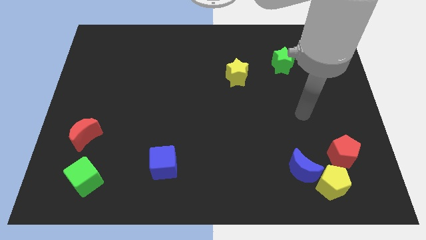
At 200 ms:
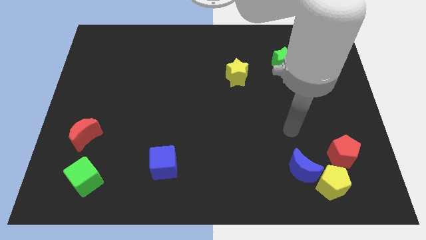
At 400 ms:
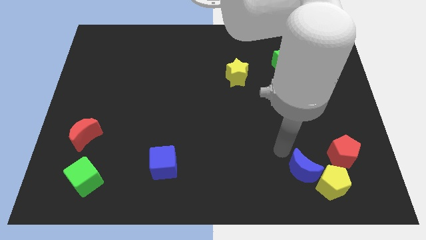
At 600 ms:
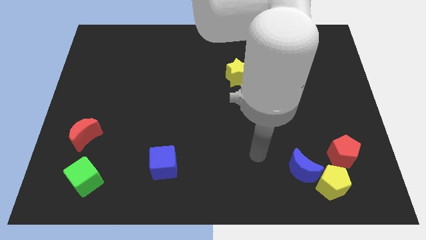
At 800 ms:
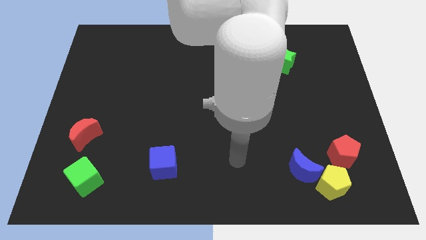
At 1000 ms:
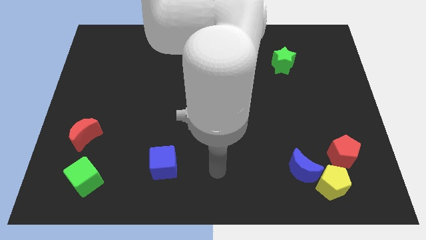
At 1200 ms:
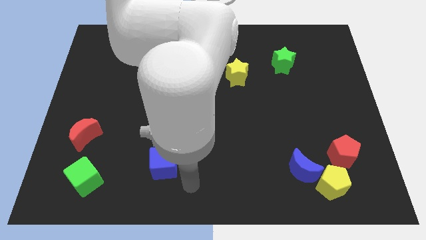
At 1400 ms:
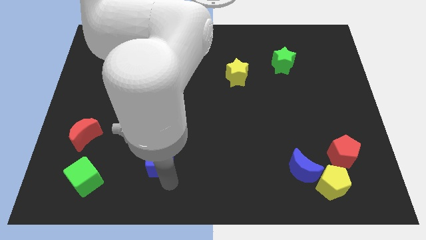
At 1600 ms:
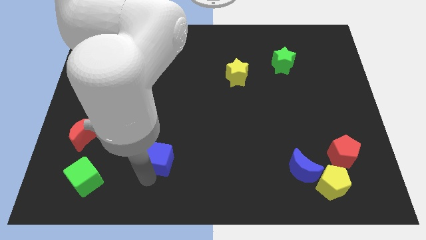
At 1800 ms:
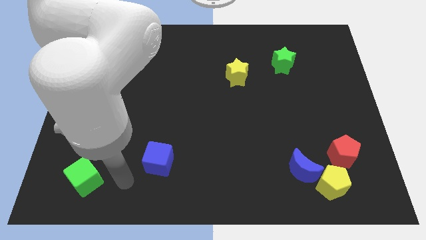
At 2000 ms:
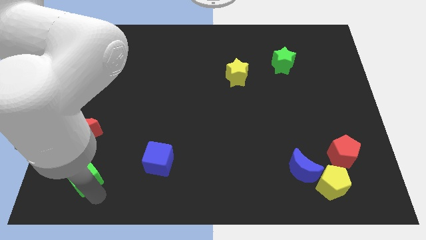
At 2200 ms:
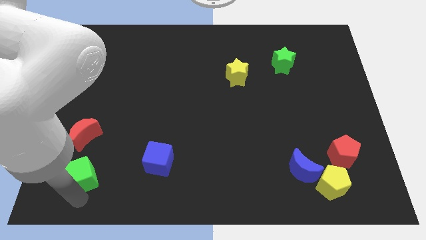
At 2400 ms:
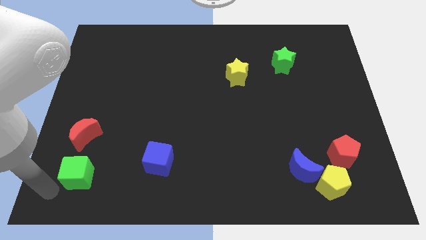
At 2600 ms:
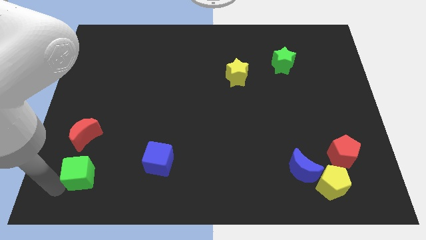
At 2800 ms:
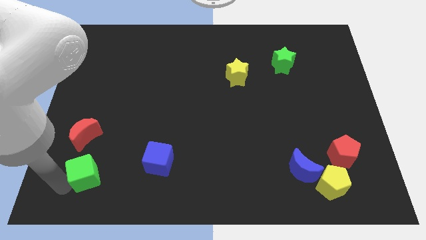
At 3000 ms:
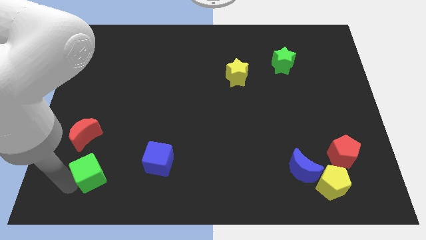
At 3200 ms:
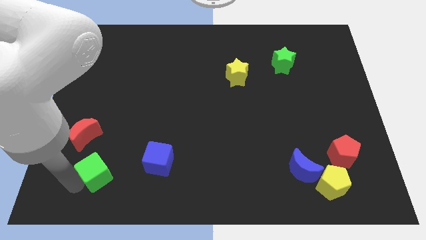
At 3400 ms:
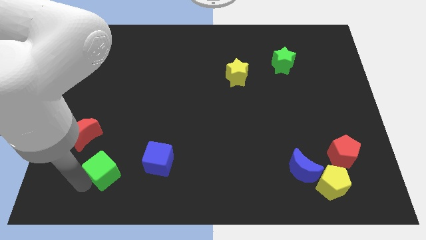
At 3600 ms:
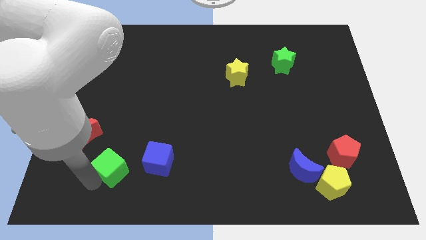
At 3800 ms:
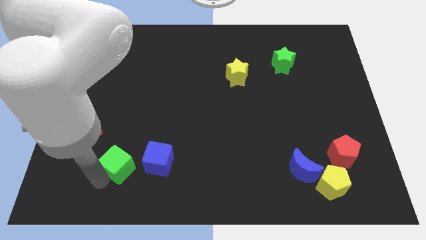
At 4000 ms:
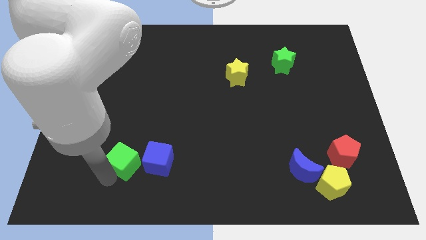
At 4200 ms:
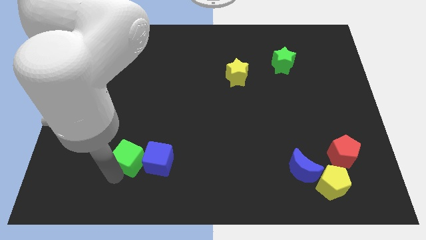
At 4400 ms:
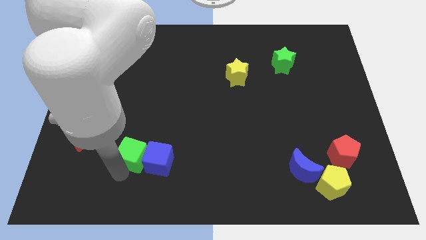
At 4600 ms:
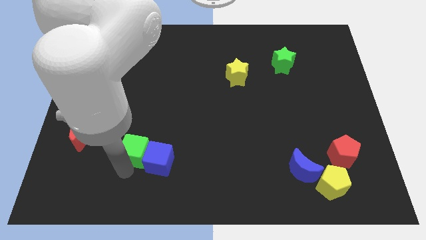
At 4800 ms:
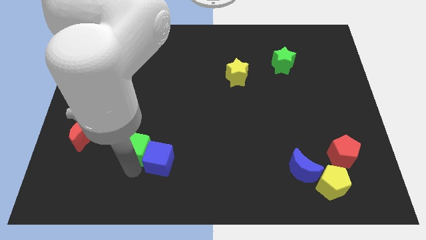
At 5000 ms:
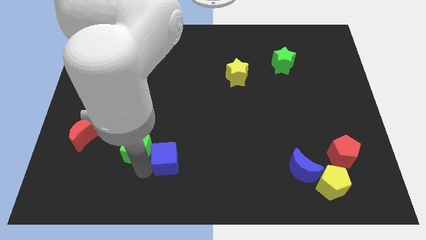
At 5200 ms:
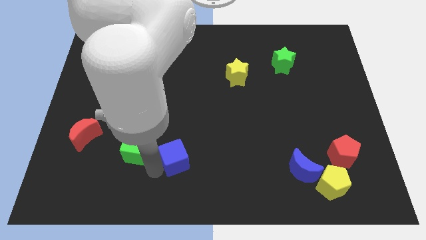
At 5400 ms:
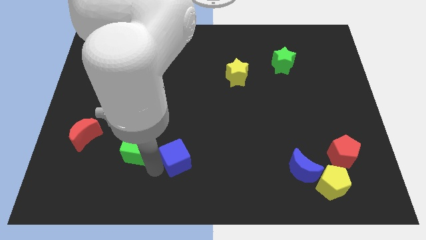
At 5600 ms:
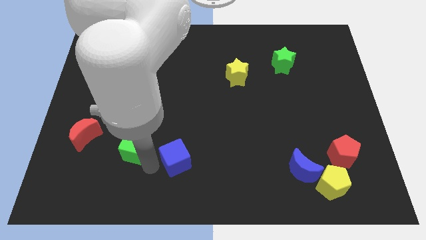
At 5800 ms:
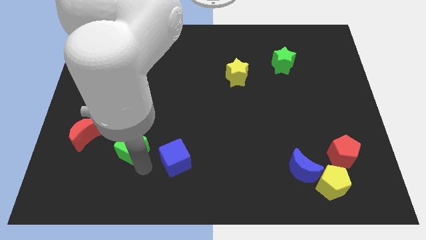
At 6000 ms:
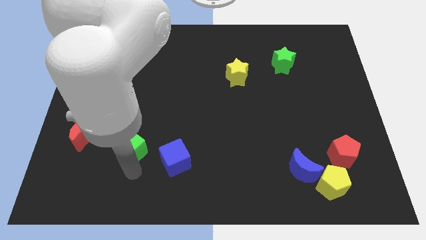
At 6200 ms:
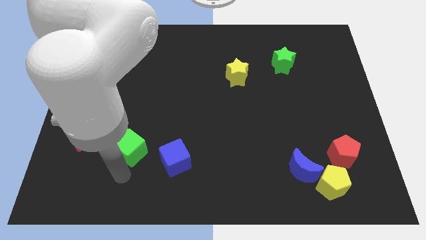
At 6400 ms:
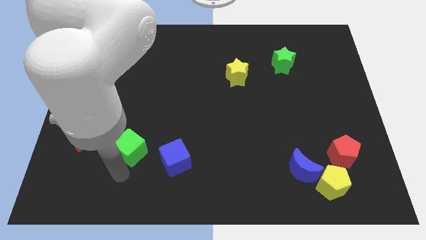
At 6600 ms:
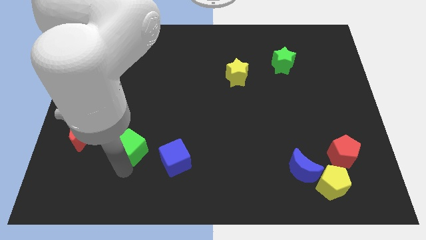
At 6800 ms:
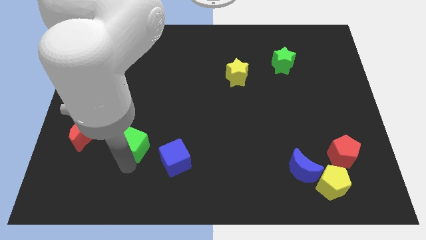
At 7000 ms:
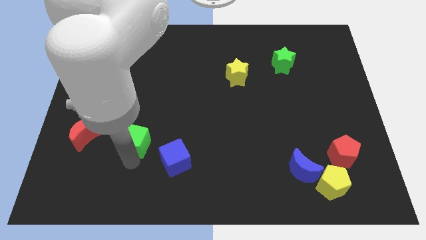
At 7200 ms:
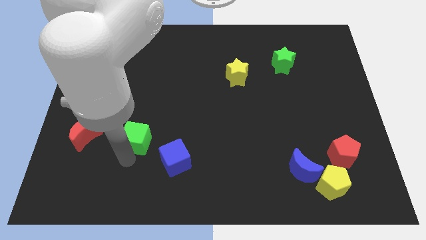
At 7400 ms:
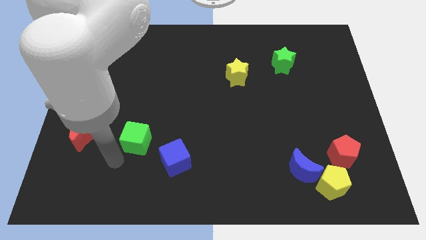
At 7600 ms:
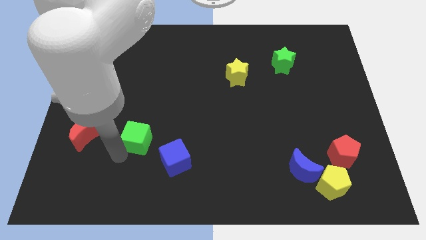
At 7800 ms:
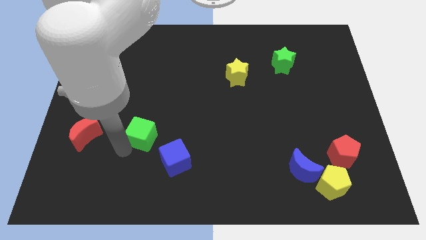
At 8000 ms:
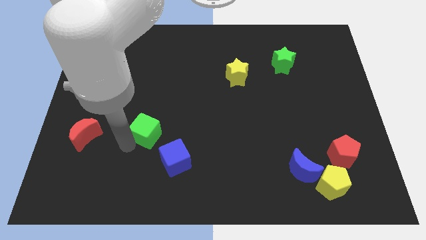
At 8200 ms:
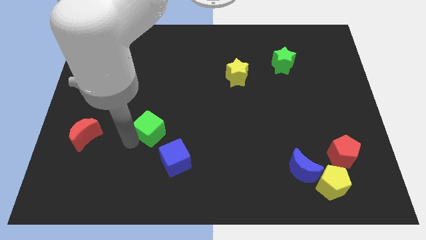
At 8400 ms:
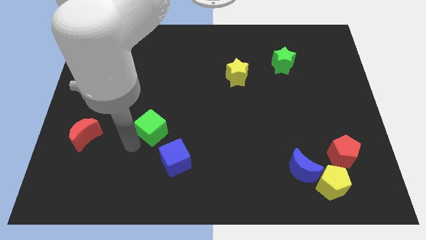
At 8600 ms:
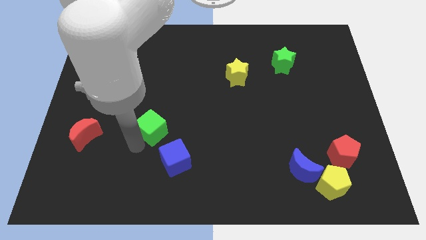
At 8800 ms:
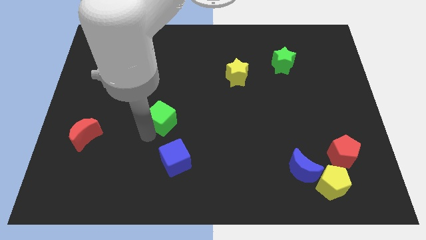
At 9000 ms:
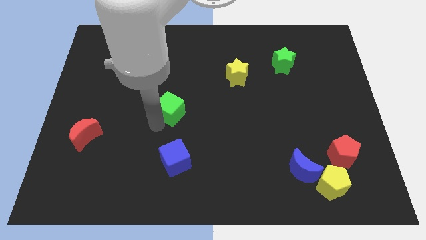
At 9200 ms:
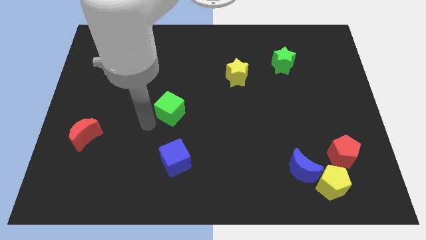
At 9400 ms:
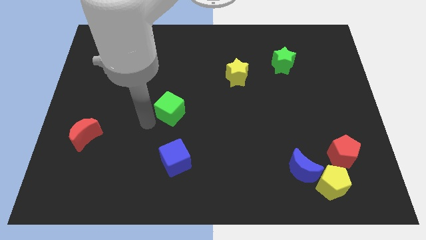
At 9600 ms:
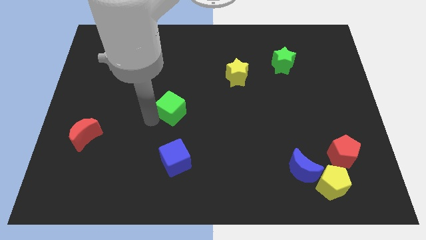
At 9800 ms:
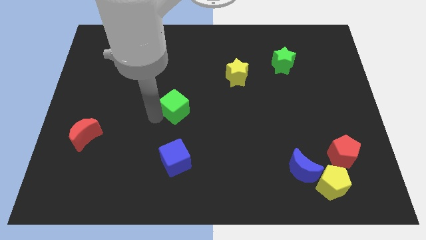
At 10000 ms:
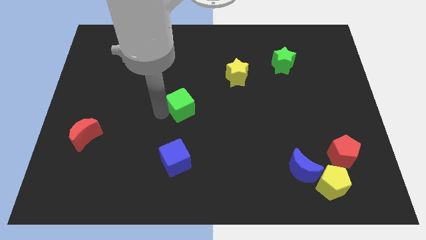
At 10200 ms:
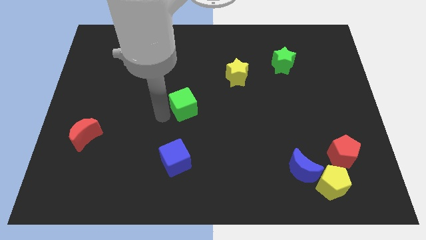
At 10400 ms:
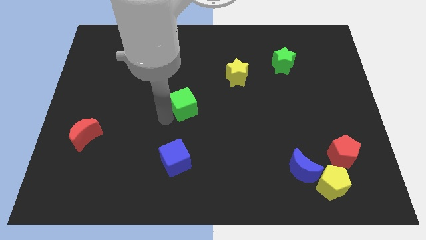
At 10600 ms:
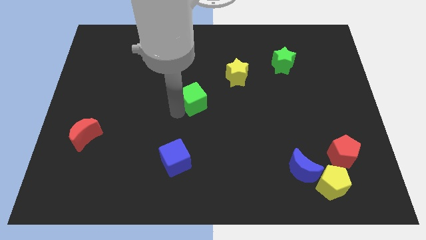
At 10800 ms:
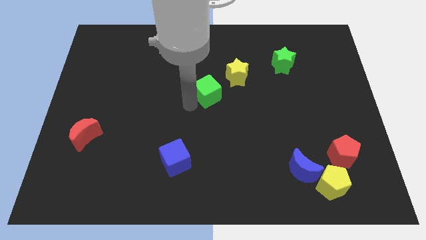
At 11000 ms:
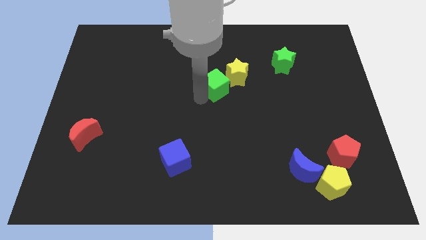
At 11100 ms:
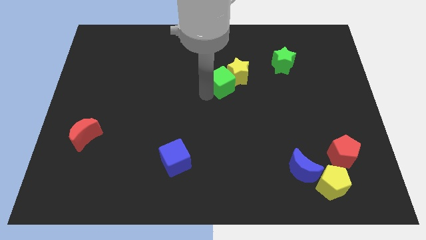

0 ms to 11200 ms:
put the green cube towards the yellow star

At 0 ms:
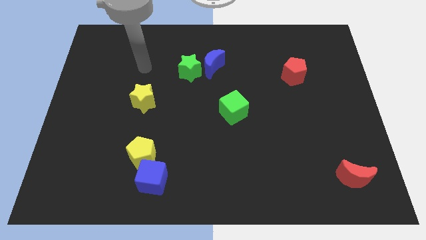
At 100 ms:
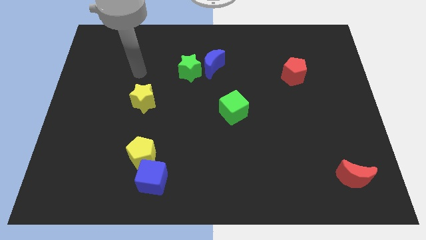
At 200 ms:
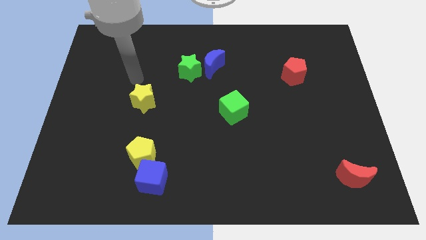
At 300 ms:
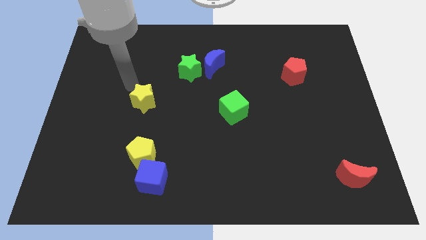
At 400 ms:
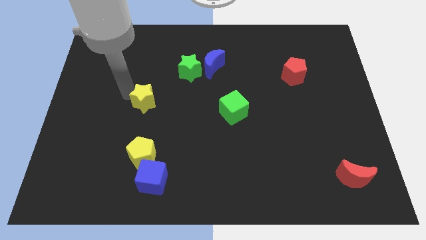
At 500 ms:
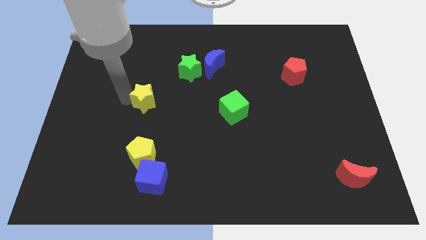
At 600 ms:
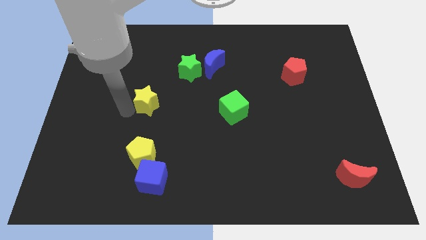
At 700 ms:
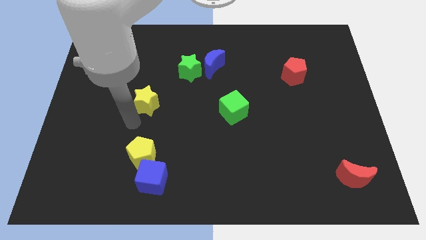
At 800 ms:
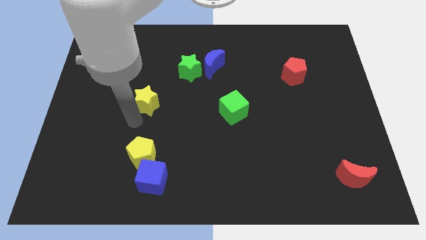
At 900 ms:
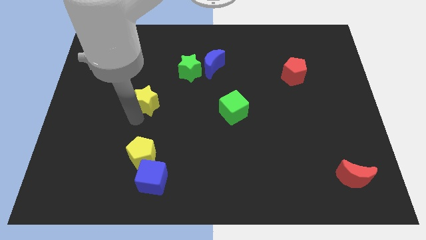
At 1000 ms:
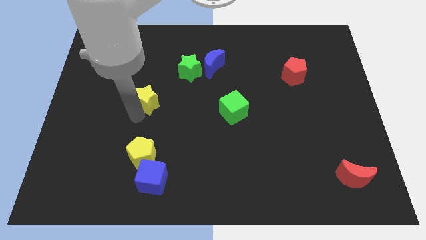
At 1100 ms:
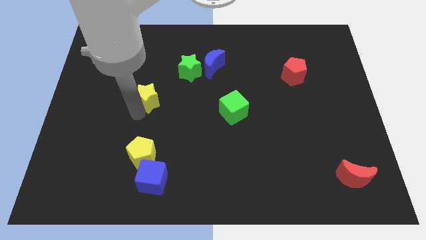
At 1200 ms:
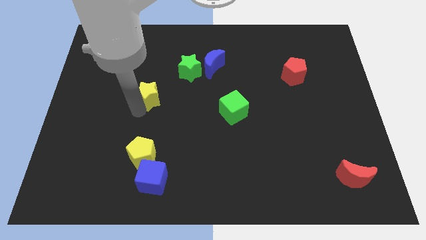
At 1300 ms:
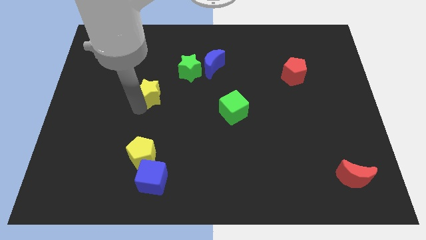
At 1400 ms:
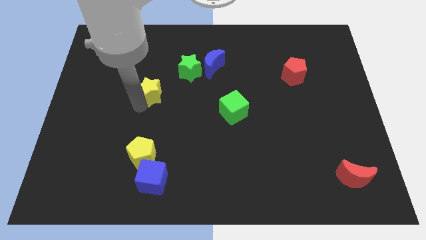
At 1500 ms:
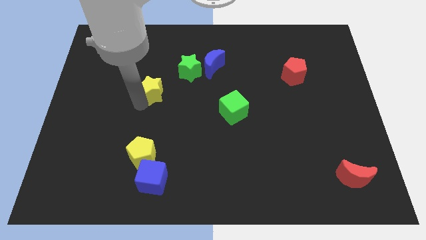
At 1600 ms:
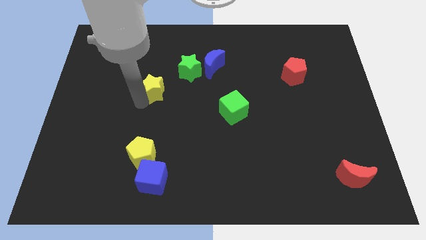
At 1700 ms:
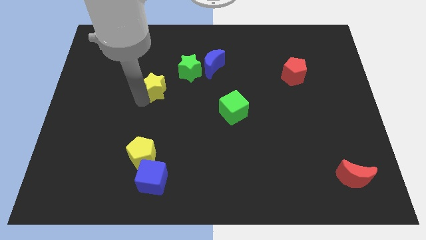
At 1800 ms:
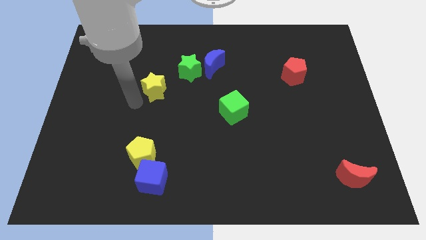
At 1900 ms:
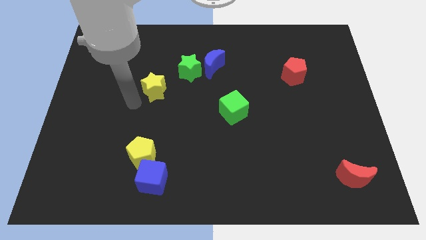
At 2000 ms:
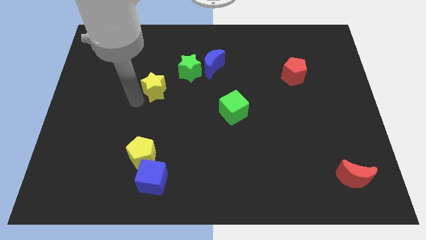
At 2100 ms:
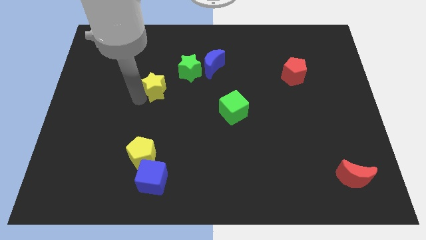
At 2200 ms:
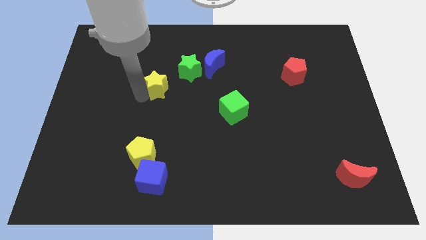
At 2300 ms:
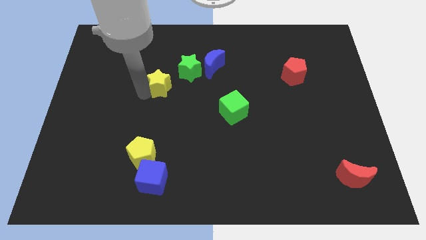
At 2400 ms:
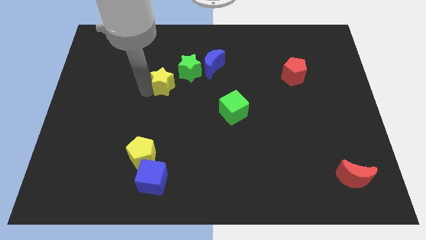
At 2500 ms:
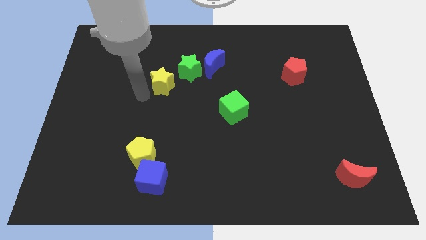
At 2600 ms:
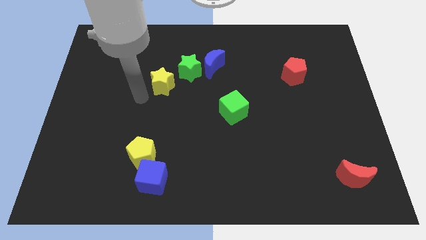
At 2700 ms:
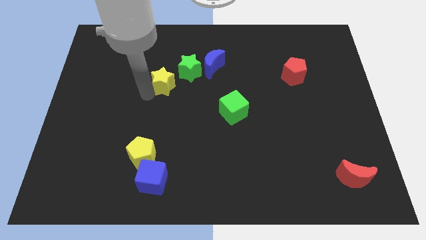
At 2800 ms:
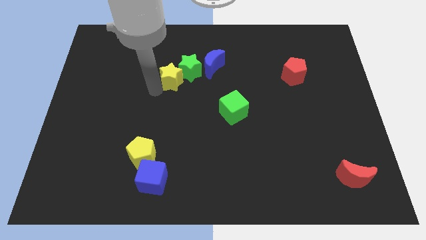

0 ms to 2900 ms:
put the yellow star close to the green star
